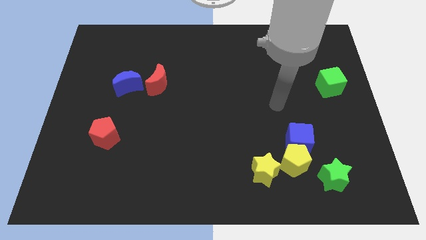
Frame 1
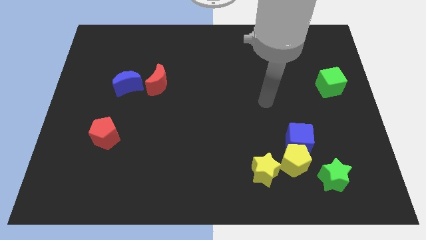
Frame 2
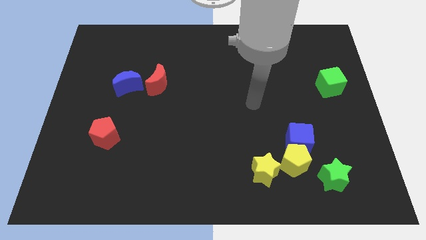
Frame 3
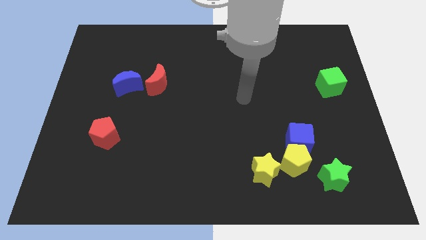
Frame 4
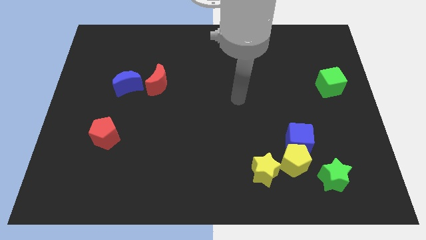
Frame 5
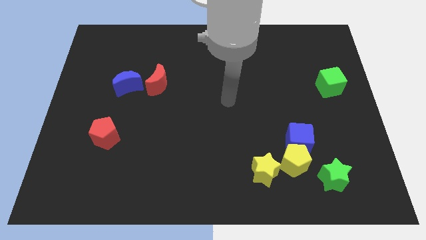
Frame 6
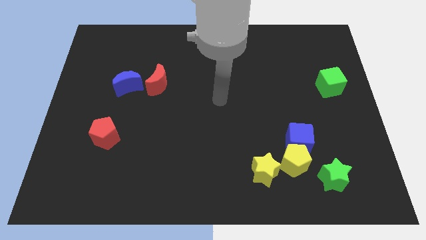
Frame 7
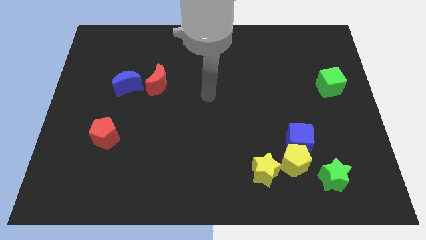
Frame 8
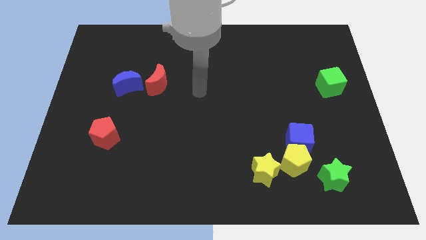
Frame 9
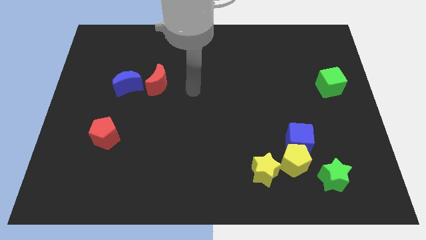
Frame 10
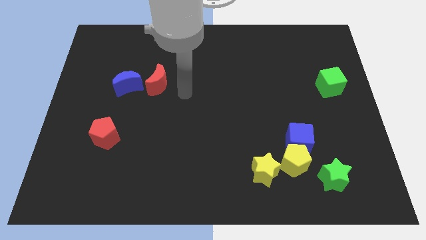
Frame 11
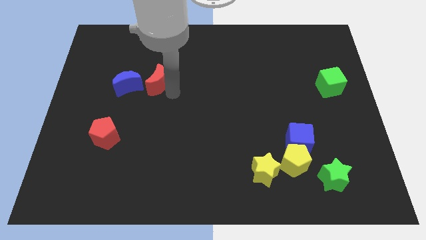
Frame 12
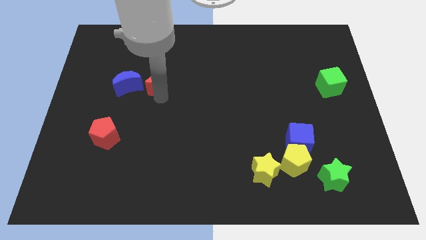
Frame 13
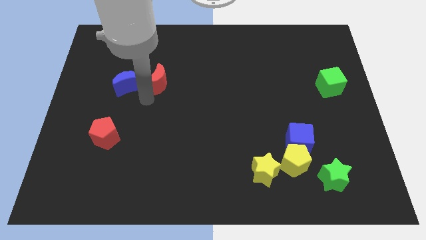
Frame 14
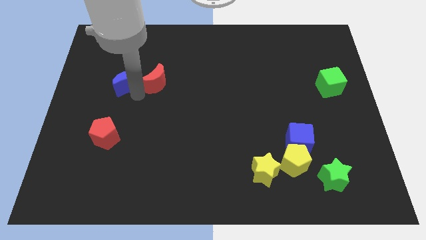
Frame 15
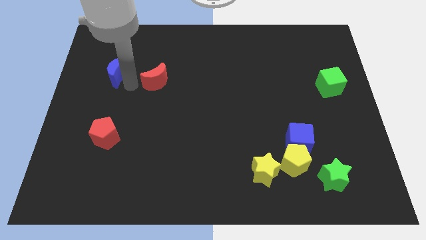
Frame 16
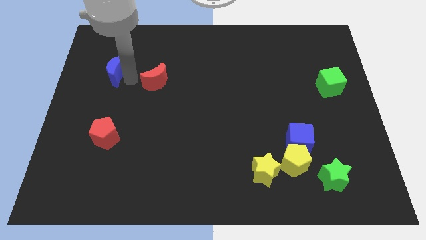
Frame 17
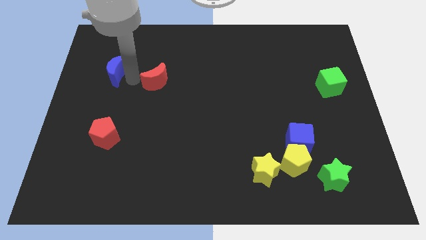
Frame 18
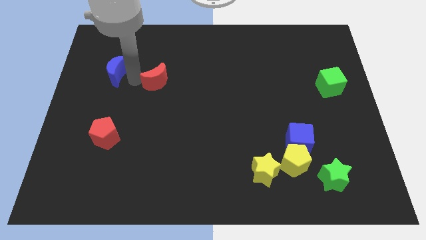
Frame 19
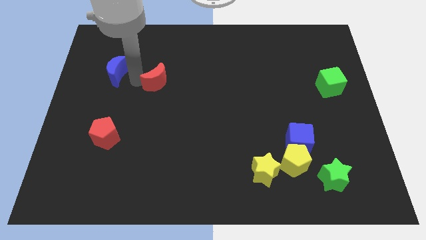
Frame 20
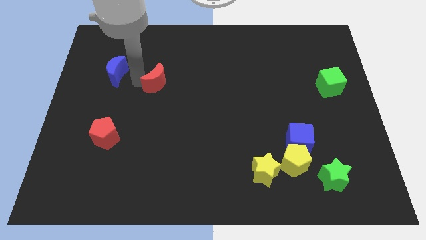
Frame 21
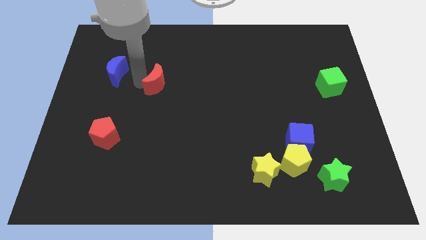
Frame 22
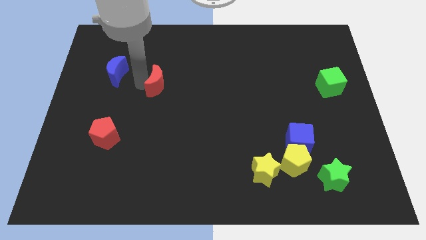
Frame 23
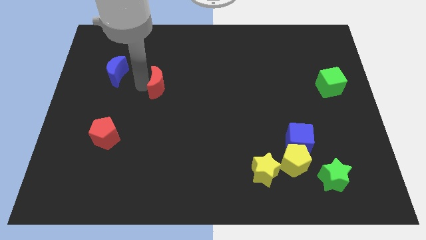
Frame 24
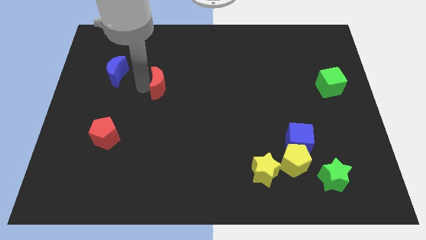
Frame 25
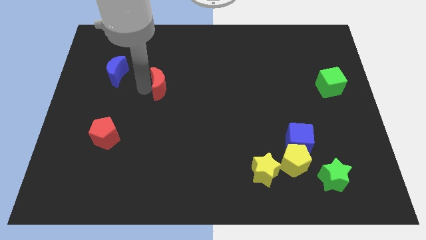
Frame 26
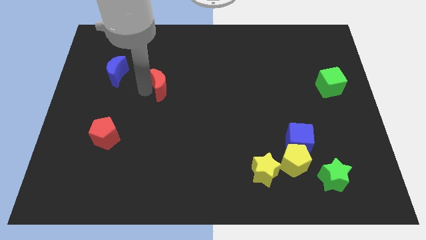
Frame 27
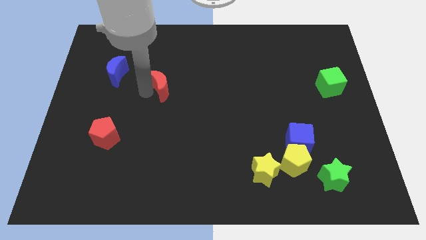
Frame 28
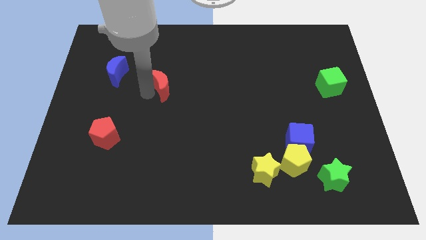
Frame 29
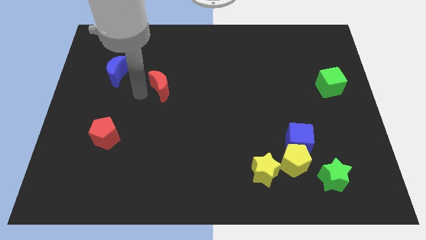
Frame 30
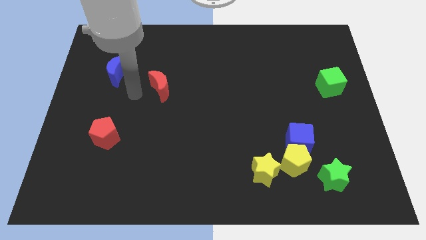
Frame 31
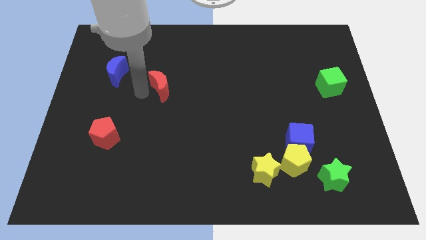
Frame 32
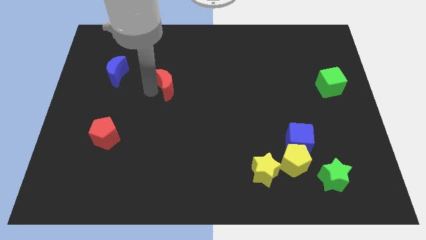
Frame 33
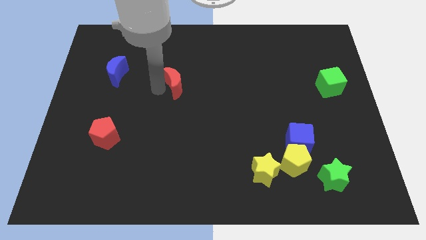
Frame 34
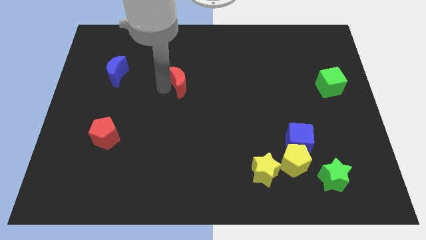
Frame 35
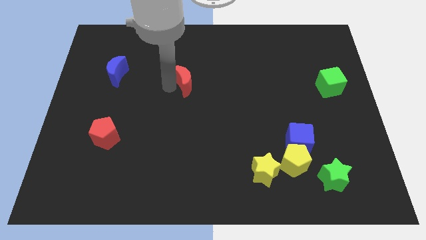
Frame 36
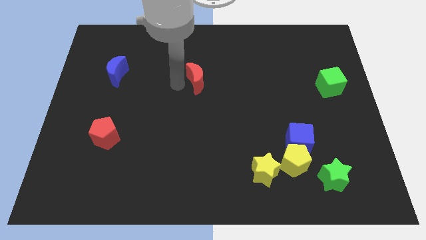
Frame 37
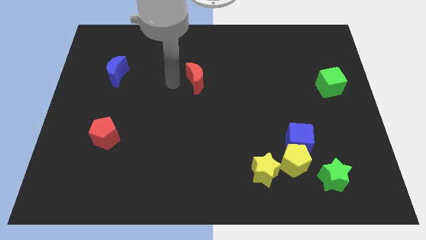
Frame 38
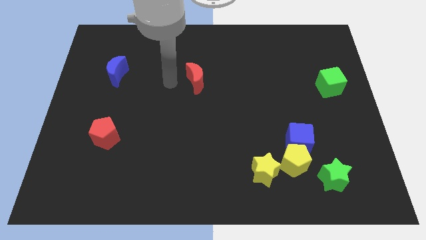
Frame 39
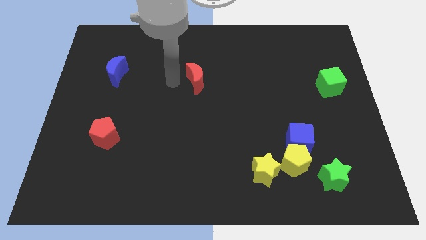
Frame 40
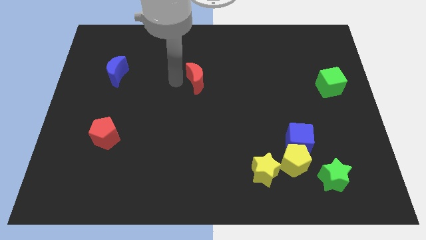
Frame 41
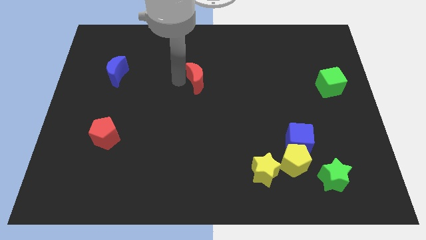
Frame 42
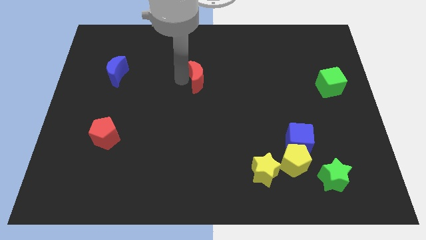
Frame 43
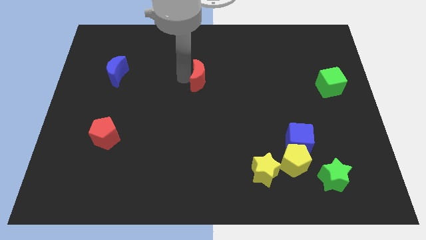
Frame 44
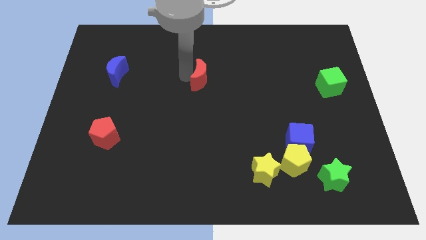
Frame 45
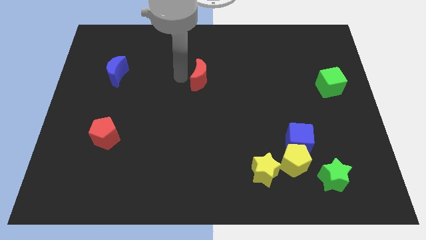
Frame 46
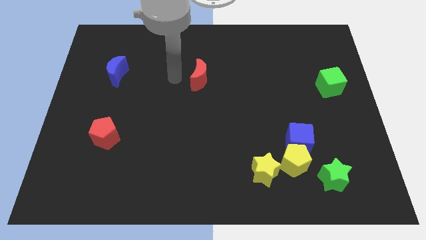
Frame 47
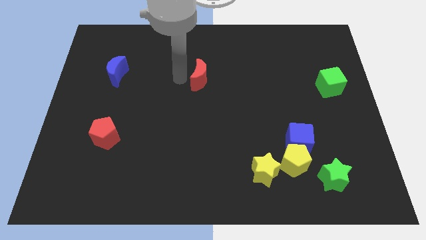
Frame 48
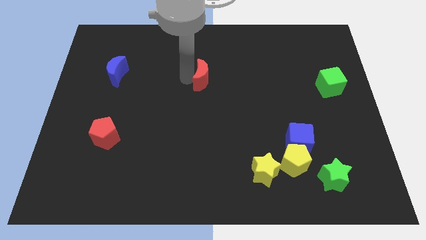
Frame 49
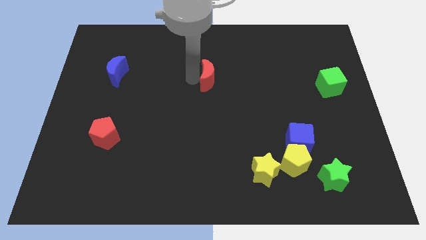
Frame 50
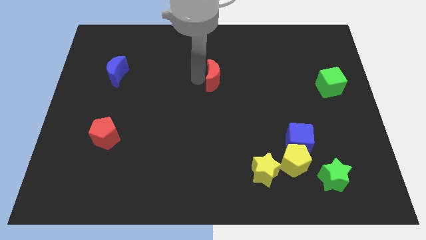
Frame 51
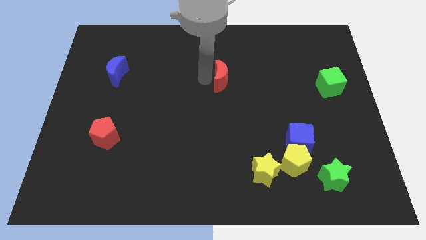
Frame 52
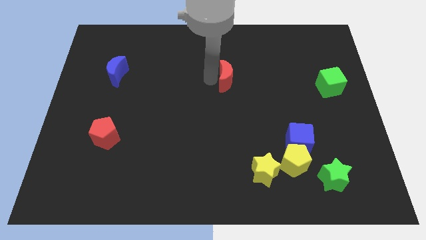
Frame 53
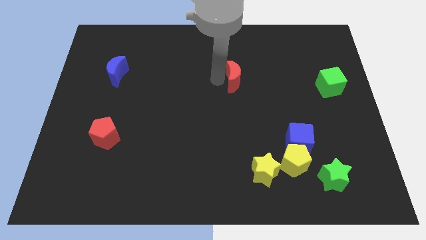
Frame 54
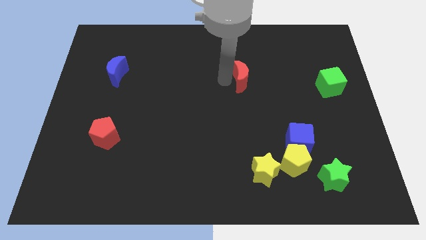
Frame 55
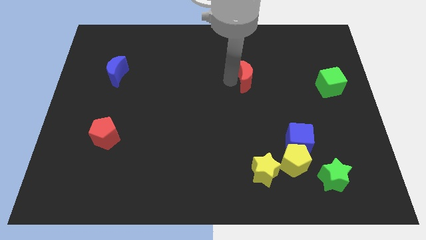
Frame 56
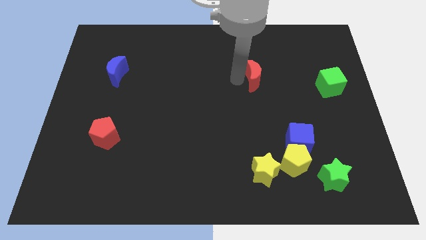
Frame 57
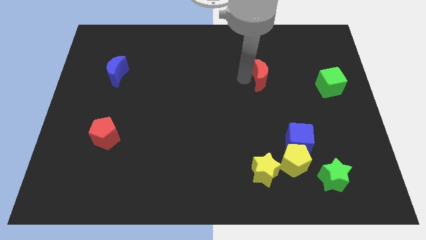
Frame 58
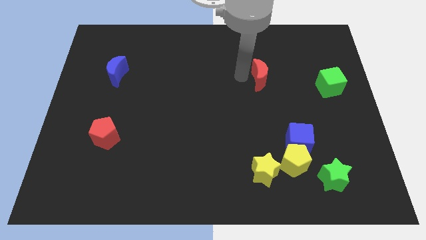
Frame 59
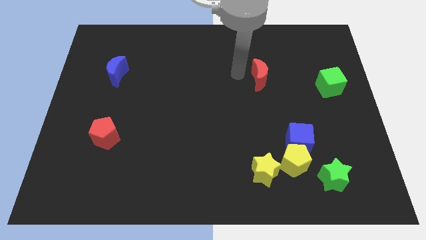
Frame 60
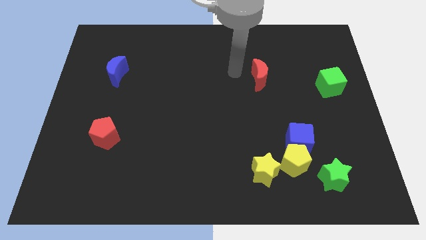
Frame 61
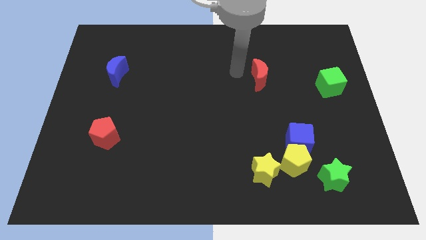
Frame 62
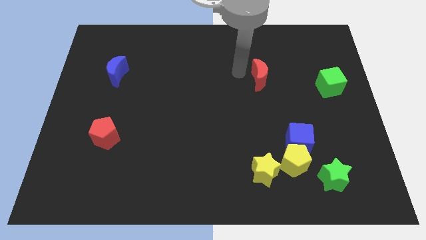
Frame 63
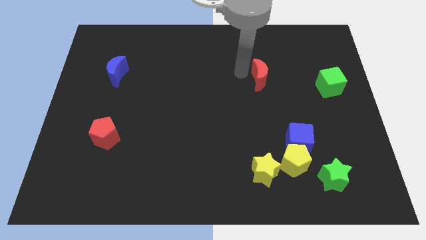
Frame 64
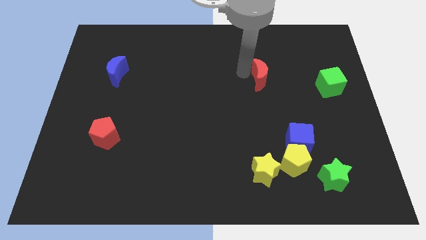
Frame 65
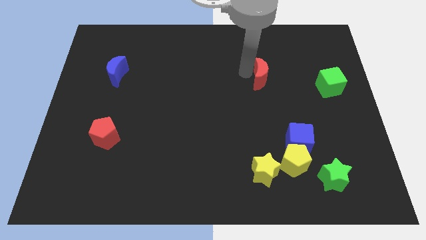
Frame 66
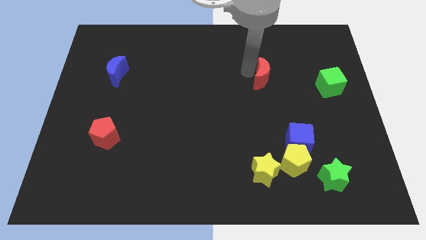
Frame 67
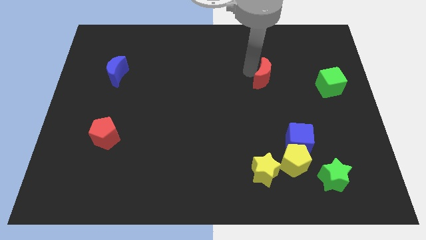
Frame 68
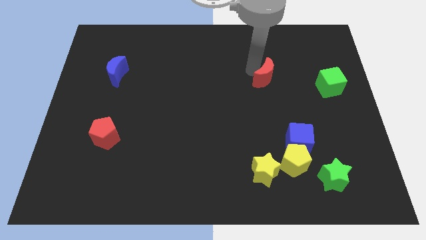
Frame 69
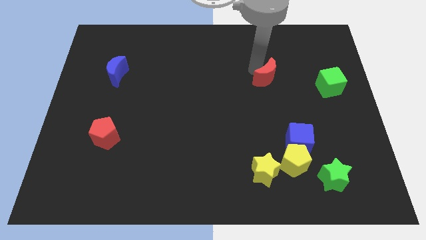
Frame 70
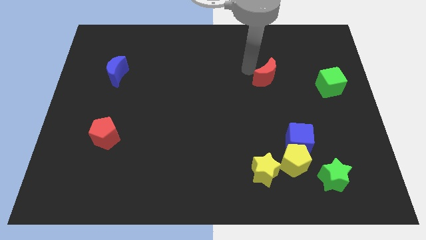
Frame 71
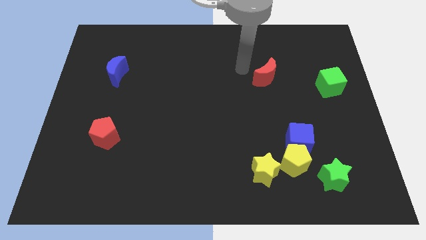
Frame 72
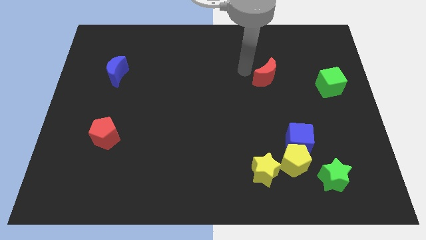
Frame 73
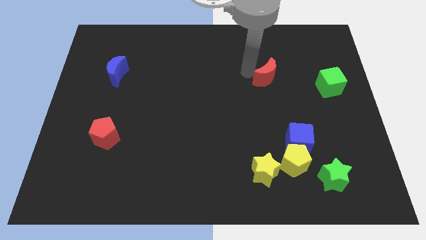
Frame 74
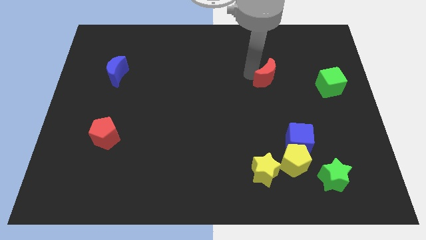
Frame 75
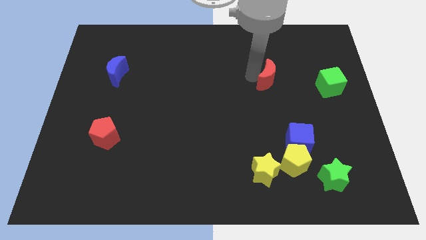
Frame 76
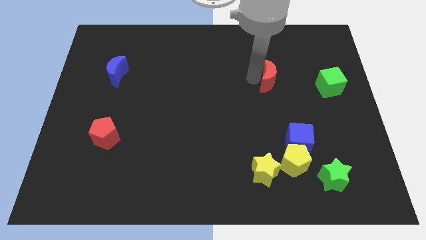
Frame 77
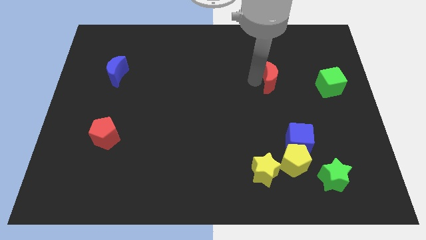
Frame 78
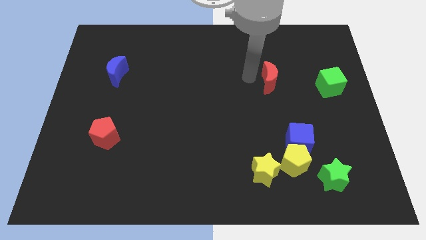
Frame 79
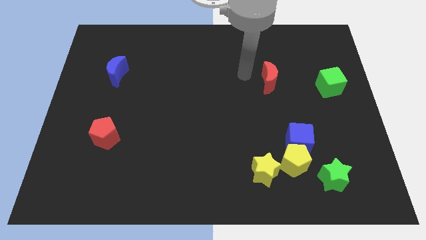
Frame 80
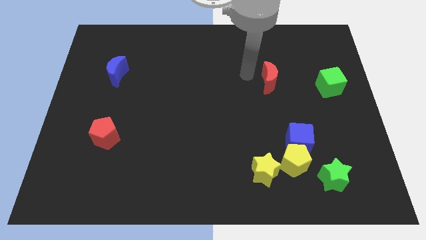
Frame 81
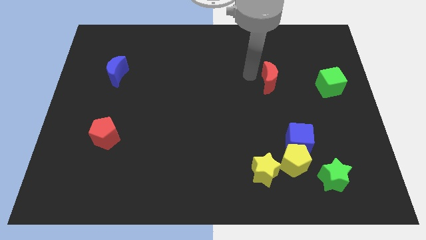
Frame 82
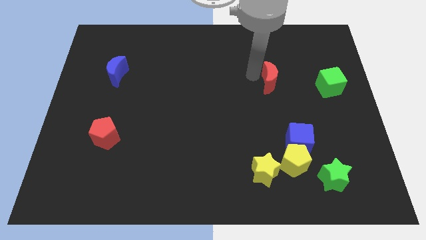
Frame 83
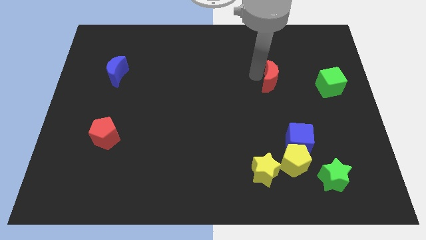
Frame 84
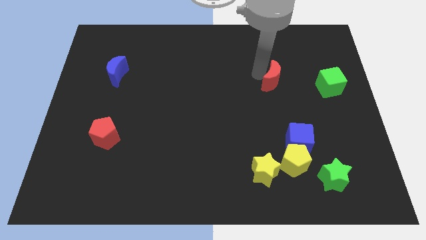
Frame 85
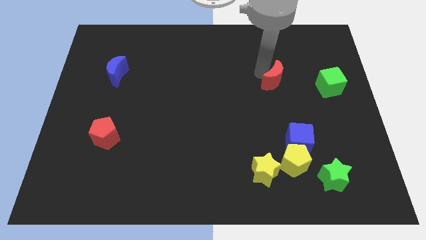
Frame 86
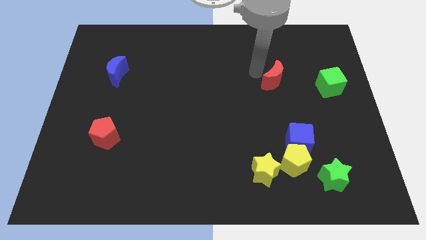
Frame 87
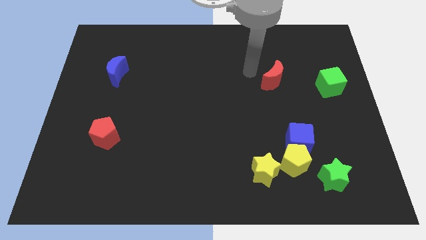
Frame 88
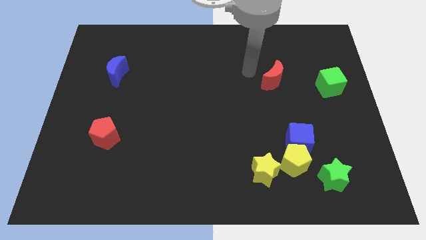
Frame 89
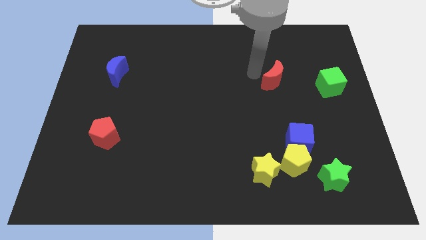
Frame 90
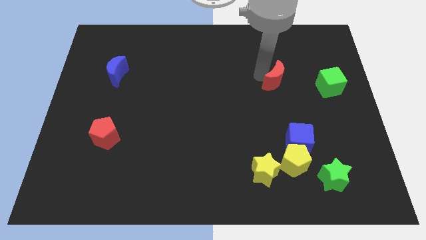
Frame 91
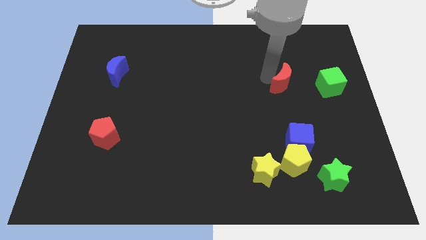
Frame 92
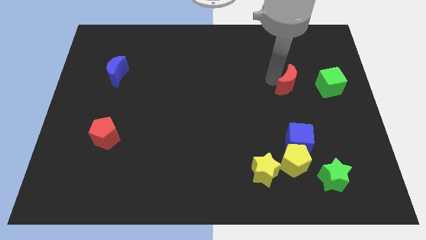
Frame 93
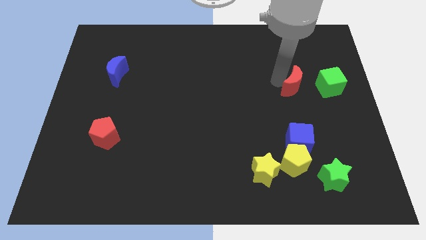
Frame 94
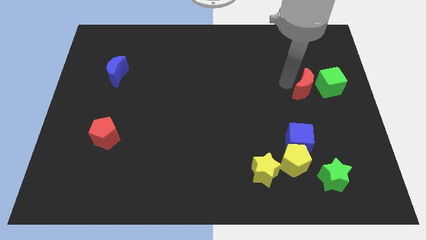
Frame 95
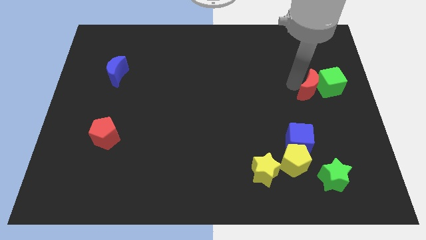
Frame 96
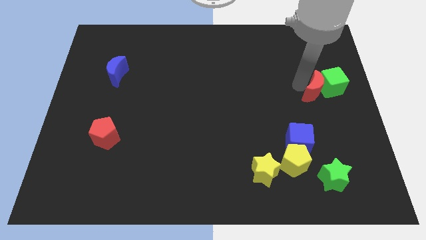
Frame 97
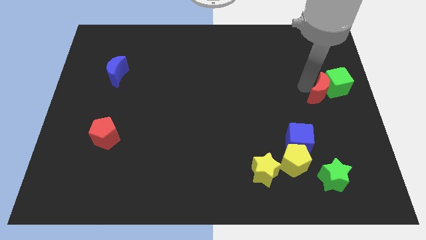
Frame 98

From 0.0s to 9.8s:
slide the red moon to the right side
